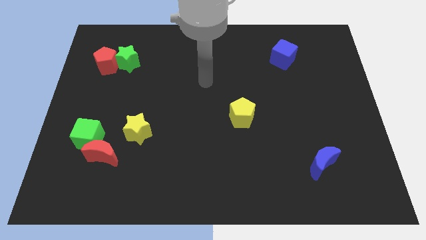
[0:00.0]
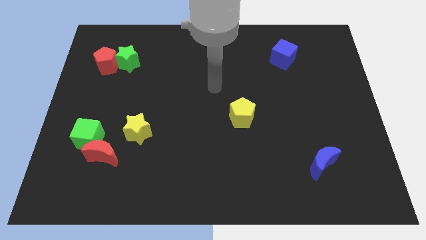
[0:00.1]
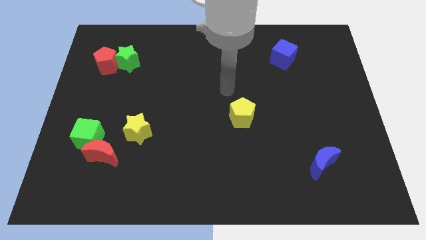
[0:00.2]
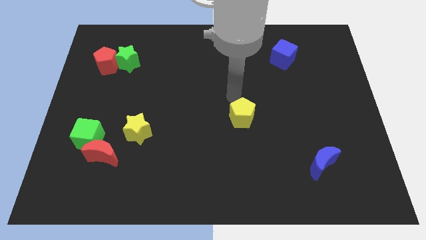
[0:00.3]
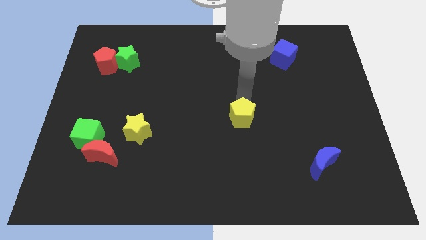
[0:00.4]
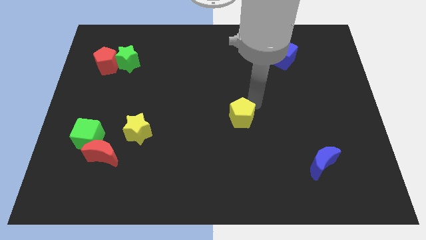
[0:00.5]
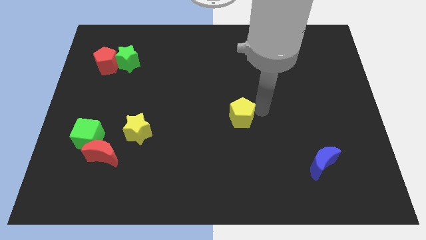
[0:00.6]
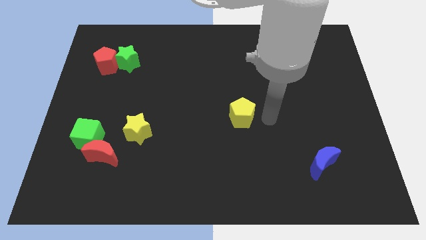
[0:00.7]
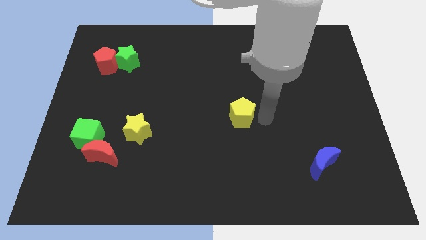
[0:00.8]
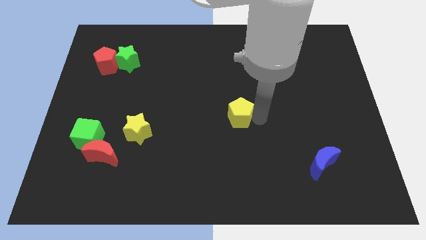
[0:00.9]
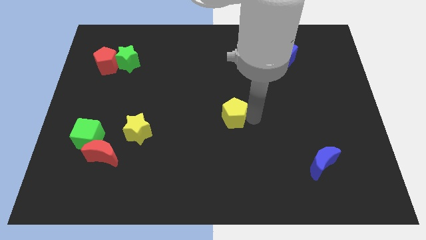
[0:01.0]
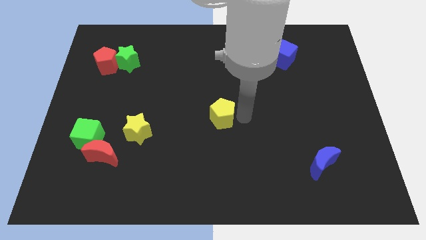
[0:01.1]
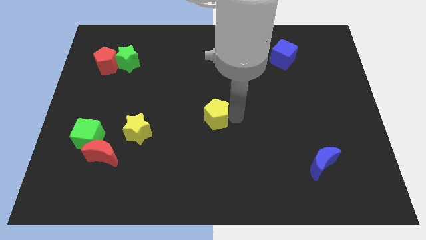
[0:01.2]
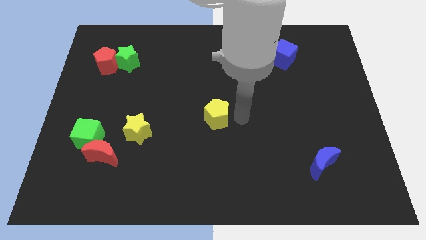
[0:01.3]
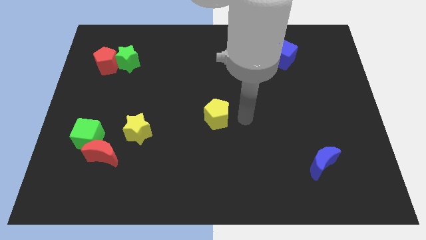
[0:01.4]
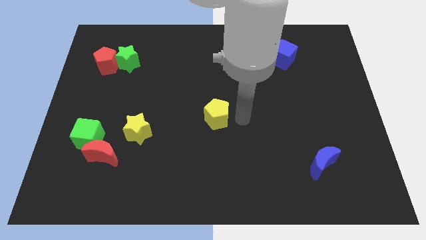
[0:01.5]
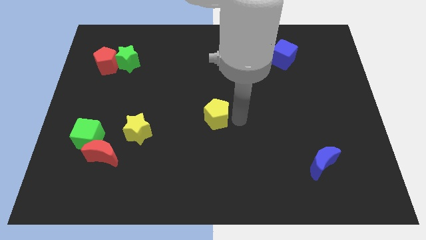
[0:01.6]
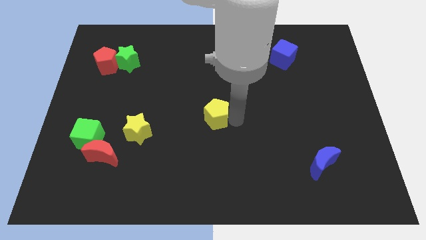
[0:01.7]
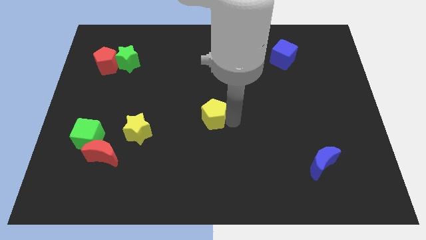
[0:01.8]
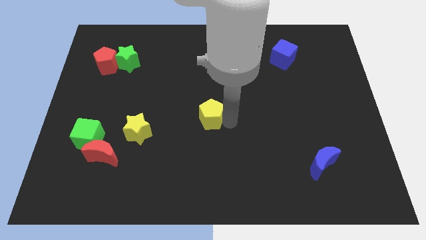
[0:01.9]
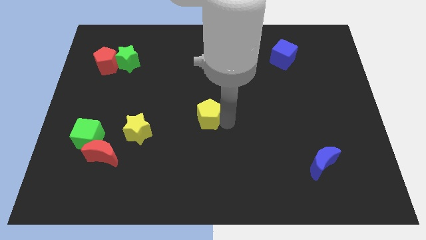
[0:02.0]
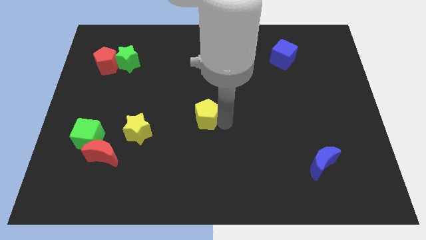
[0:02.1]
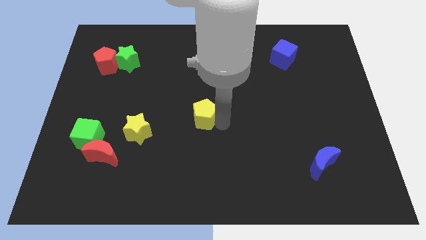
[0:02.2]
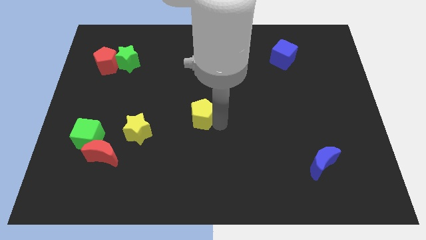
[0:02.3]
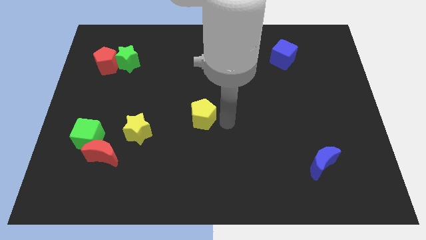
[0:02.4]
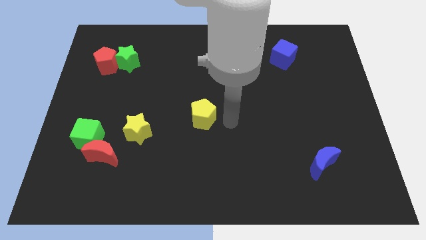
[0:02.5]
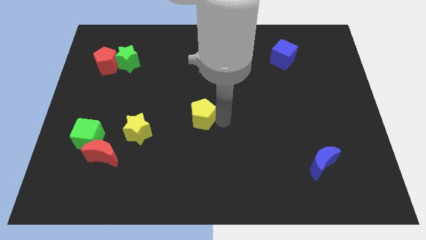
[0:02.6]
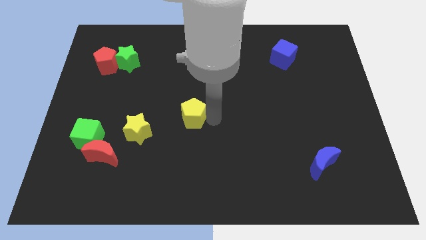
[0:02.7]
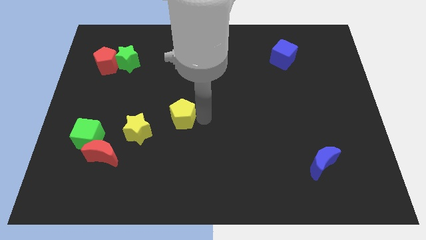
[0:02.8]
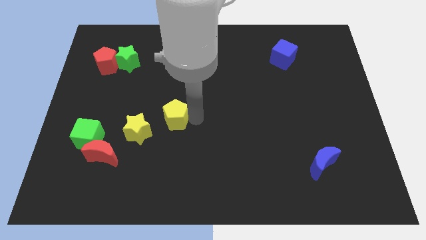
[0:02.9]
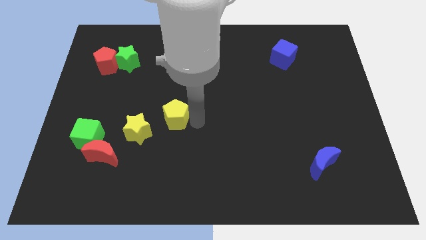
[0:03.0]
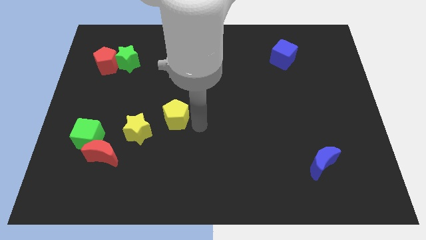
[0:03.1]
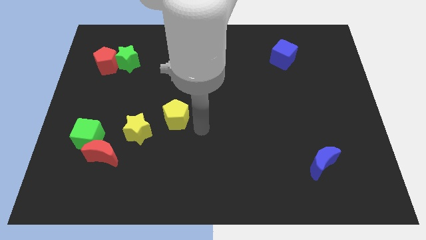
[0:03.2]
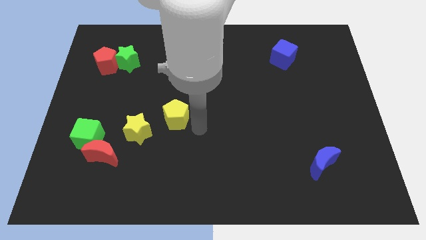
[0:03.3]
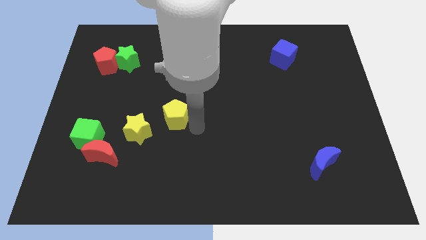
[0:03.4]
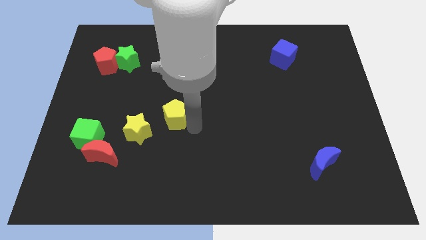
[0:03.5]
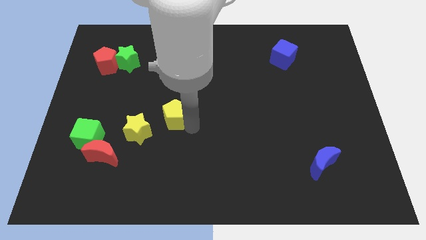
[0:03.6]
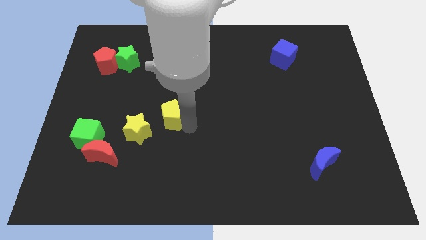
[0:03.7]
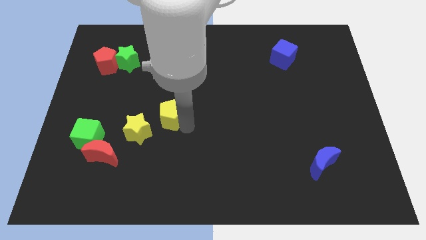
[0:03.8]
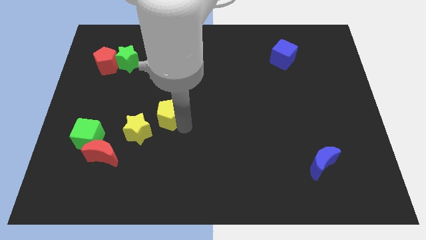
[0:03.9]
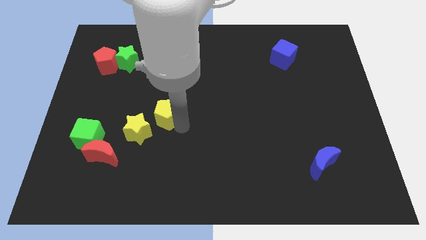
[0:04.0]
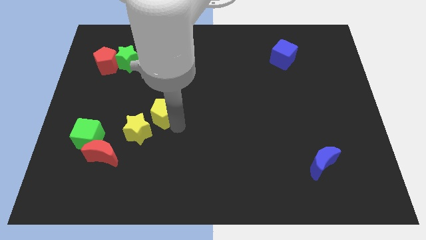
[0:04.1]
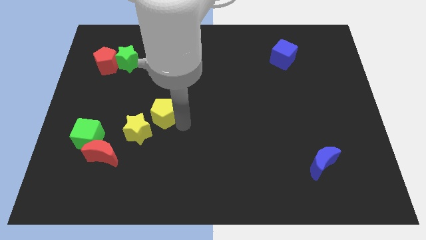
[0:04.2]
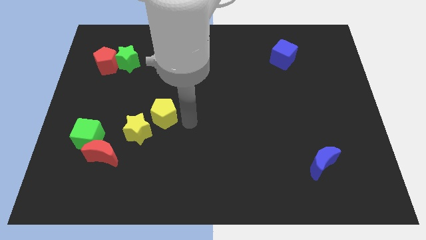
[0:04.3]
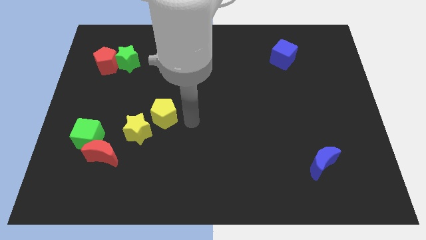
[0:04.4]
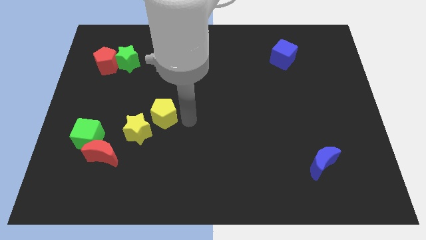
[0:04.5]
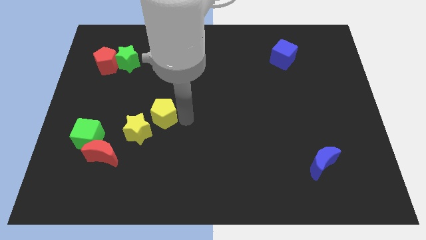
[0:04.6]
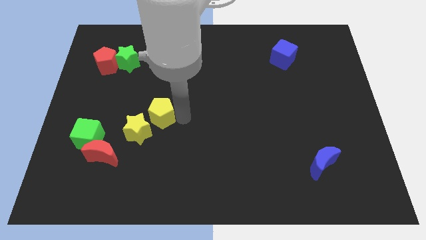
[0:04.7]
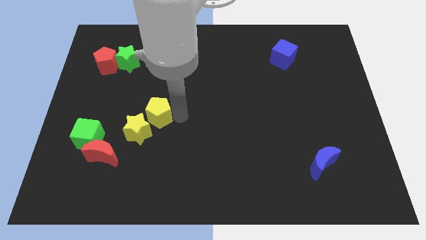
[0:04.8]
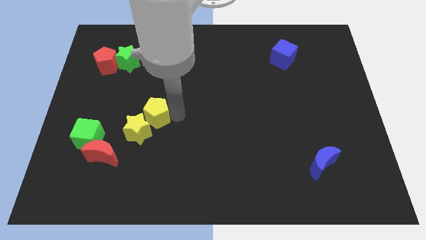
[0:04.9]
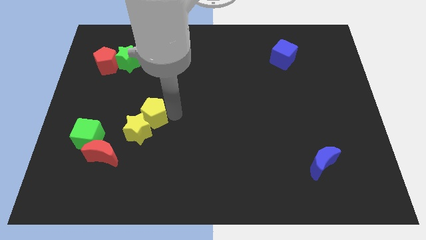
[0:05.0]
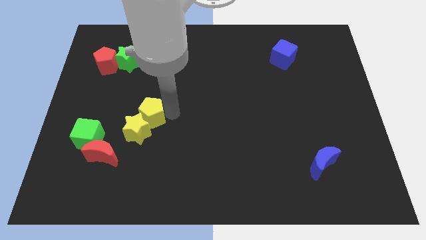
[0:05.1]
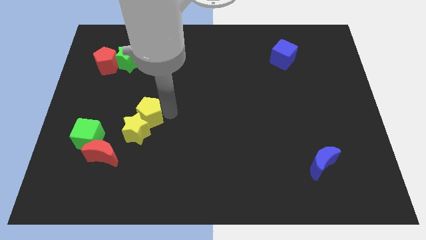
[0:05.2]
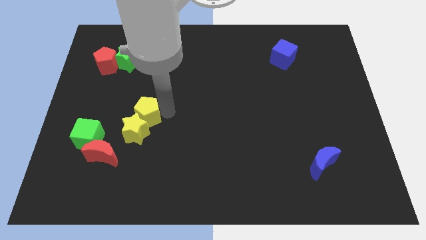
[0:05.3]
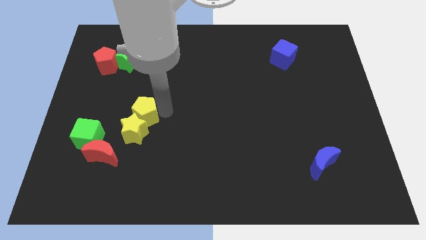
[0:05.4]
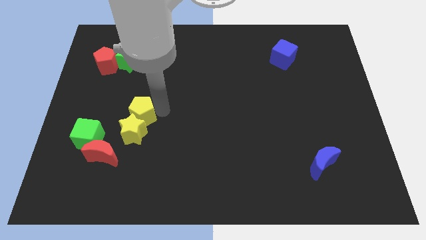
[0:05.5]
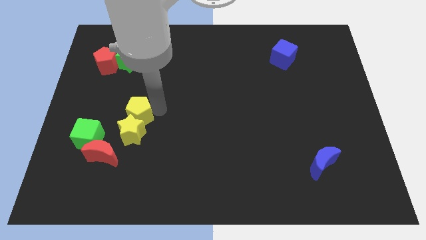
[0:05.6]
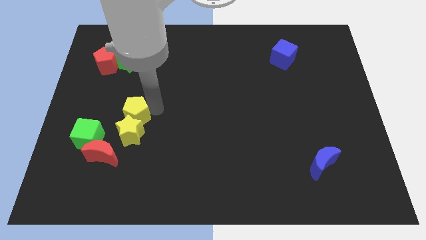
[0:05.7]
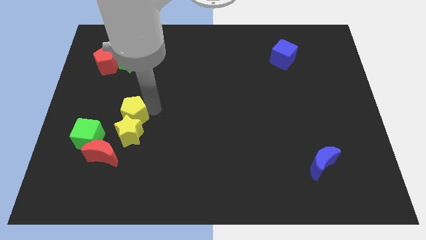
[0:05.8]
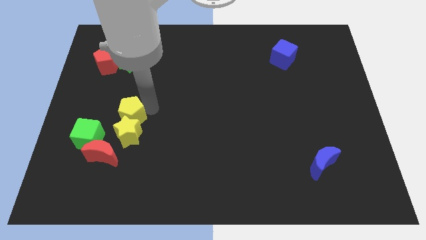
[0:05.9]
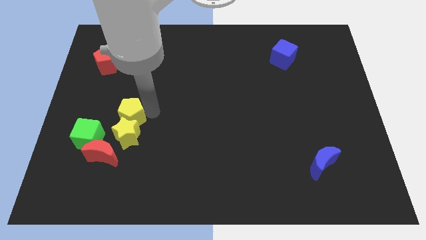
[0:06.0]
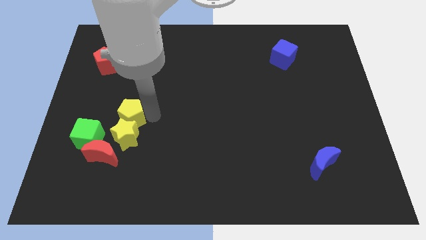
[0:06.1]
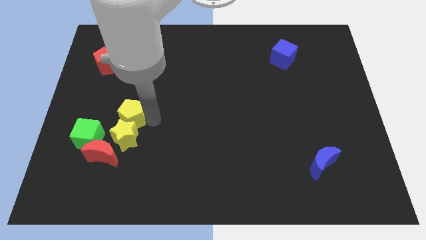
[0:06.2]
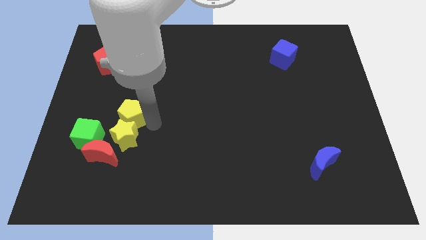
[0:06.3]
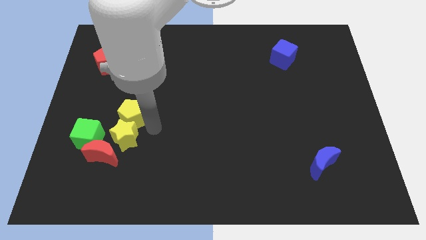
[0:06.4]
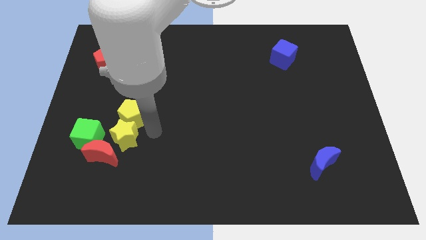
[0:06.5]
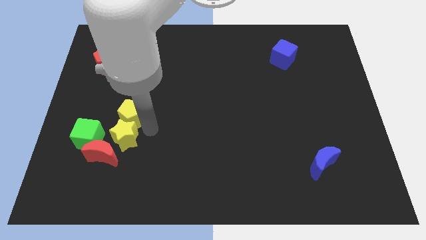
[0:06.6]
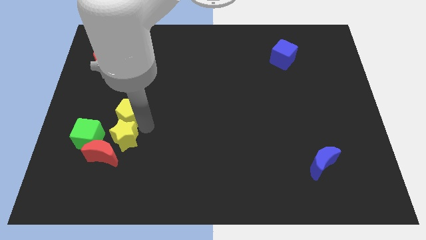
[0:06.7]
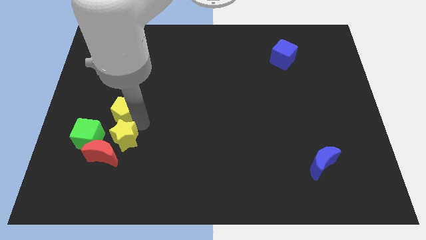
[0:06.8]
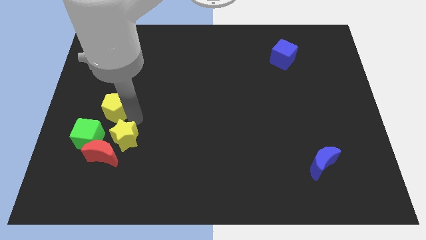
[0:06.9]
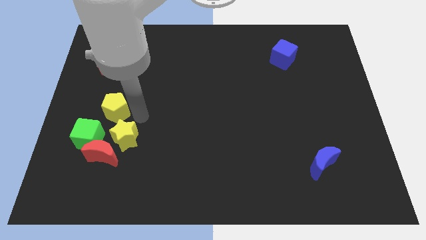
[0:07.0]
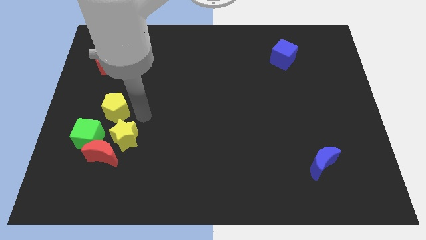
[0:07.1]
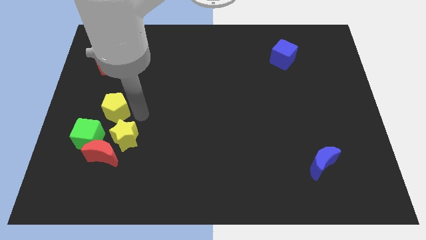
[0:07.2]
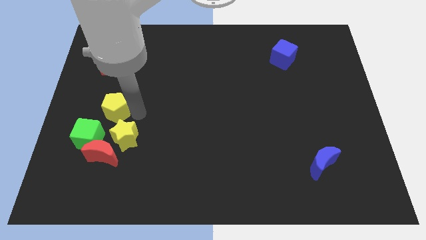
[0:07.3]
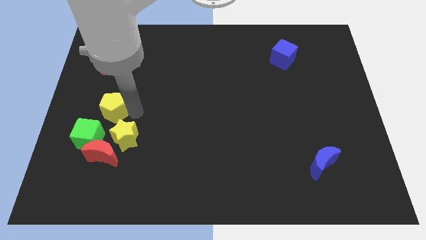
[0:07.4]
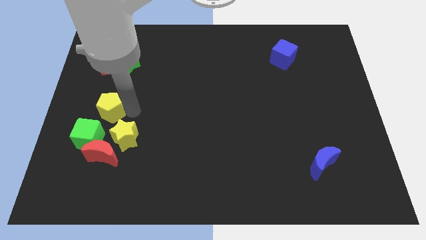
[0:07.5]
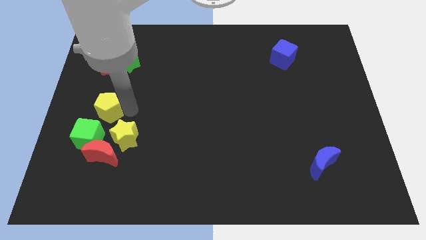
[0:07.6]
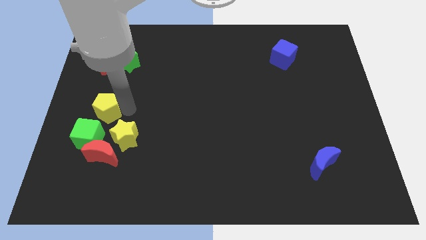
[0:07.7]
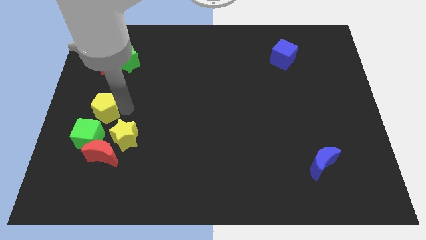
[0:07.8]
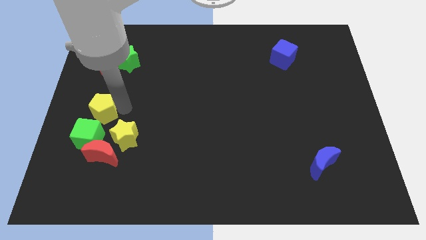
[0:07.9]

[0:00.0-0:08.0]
slide the yellow pentagon to the left side
